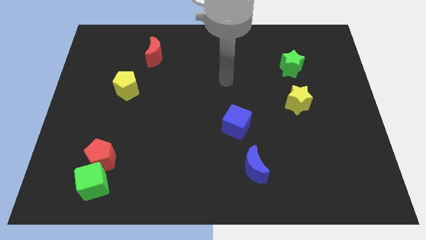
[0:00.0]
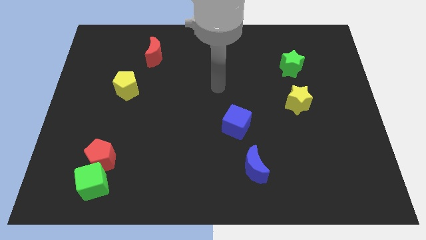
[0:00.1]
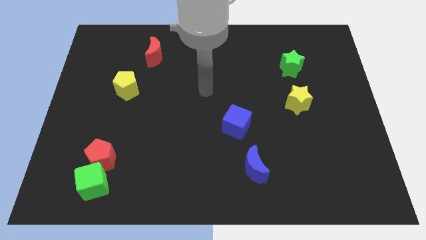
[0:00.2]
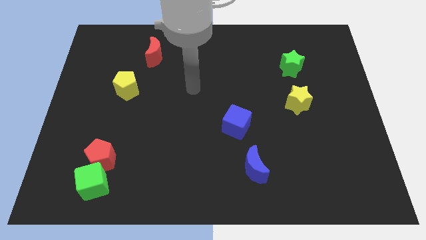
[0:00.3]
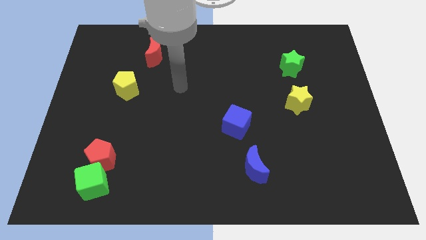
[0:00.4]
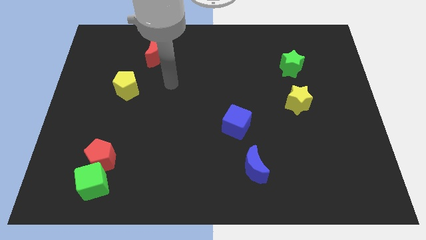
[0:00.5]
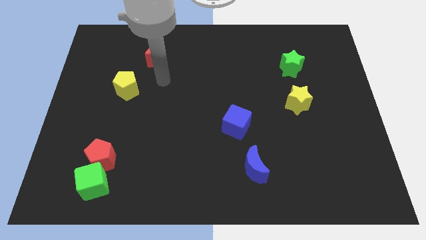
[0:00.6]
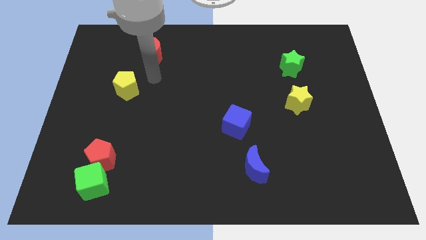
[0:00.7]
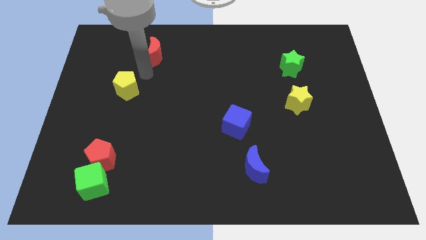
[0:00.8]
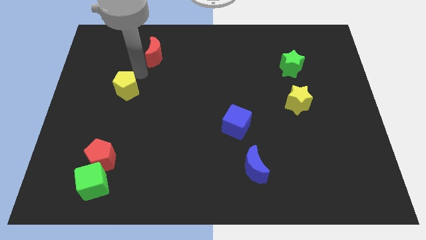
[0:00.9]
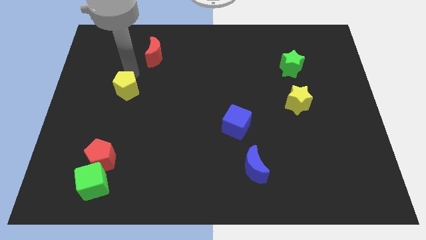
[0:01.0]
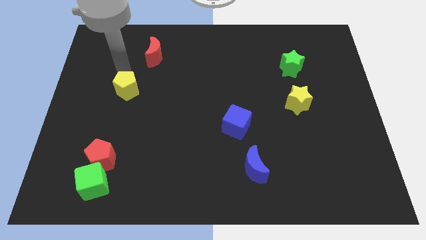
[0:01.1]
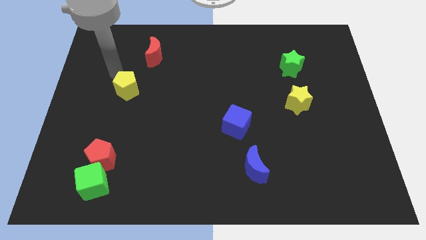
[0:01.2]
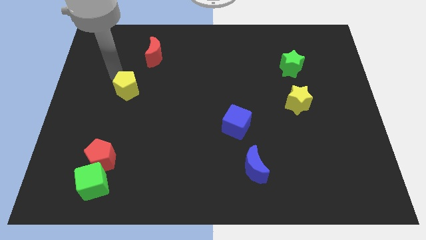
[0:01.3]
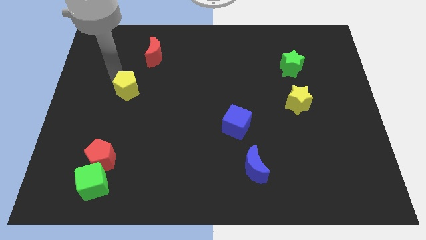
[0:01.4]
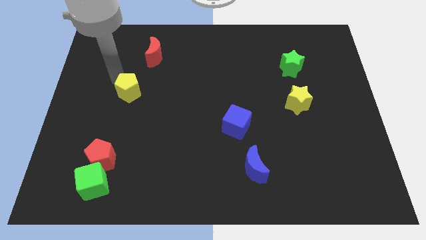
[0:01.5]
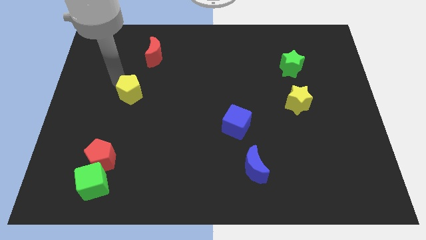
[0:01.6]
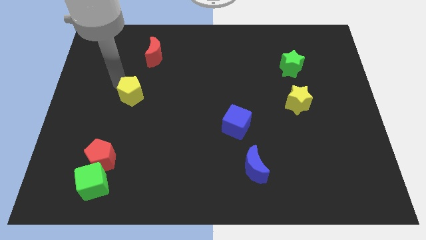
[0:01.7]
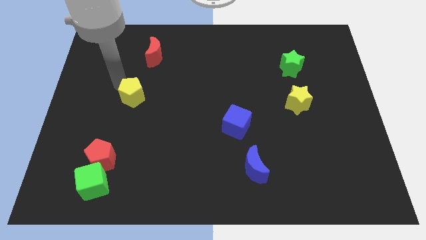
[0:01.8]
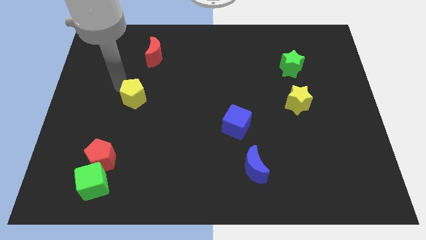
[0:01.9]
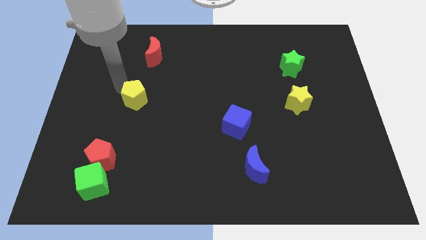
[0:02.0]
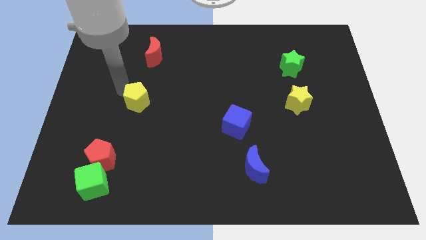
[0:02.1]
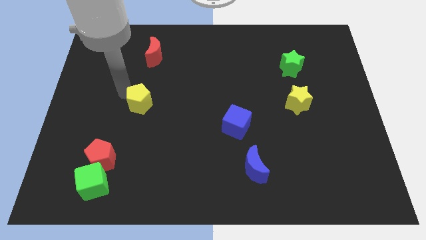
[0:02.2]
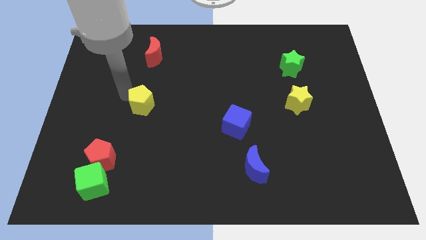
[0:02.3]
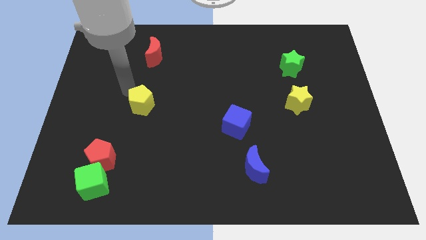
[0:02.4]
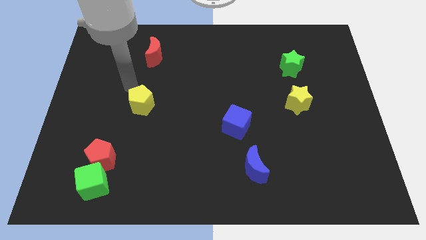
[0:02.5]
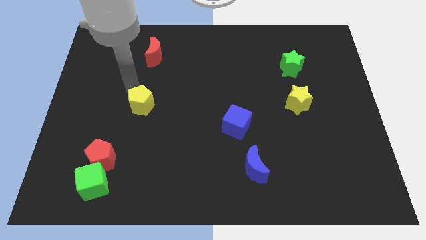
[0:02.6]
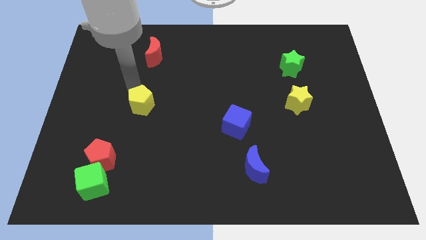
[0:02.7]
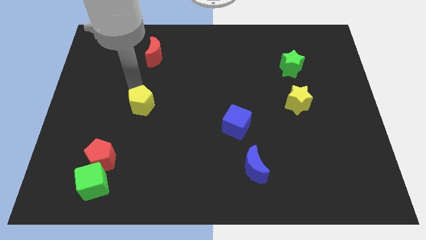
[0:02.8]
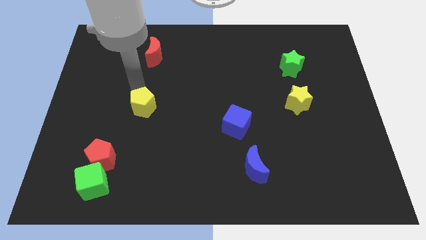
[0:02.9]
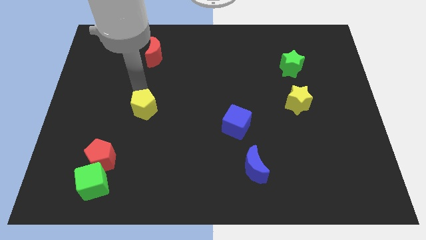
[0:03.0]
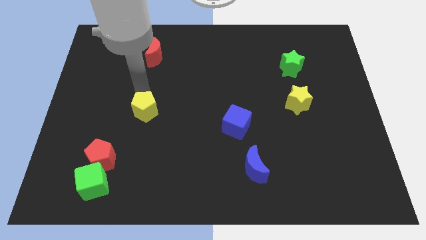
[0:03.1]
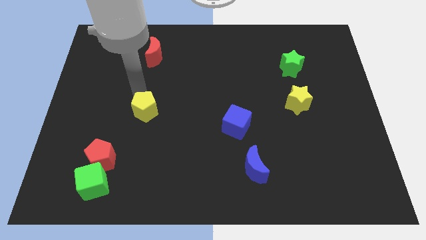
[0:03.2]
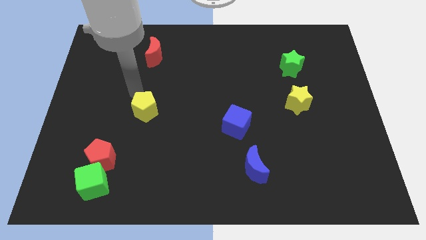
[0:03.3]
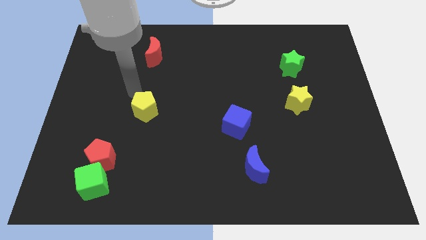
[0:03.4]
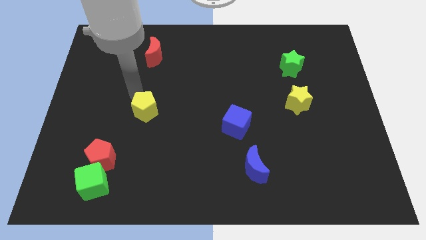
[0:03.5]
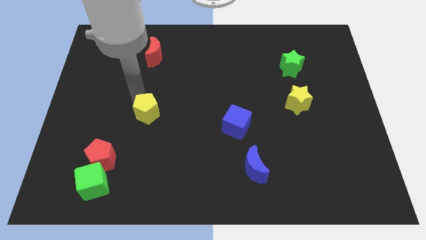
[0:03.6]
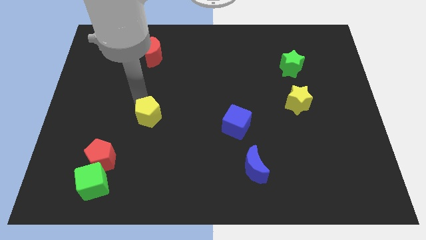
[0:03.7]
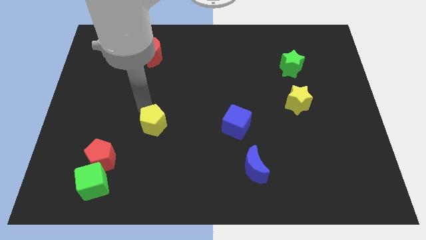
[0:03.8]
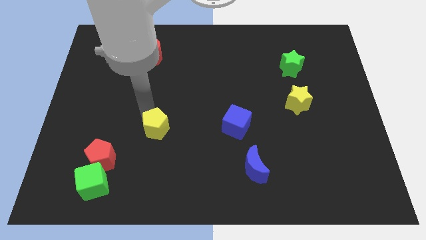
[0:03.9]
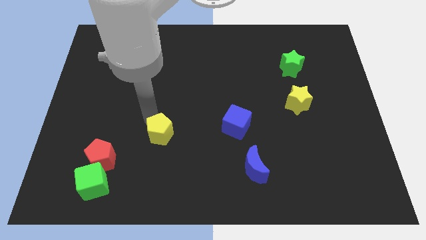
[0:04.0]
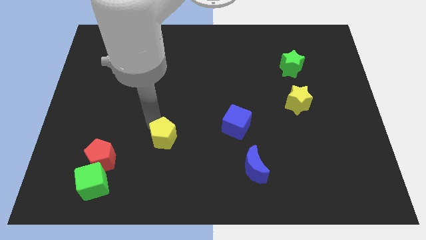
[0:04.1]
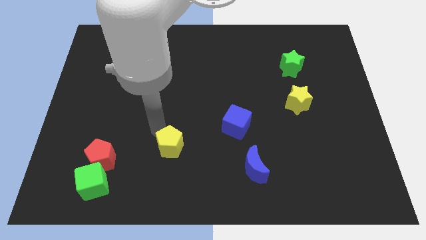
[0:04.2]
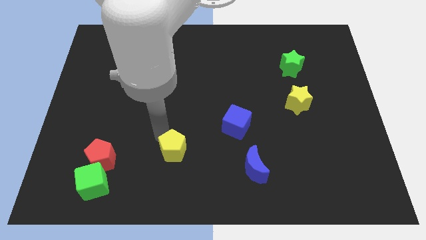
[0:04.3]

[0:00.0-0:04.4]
push the yellow pentagon down and then to the right

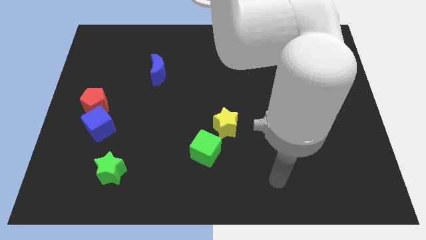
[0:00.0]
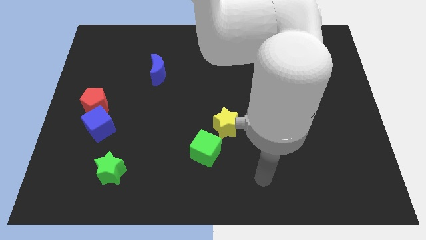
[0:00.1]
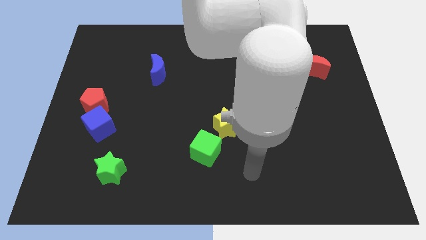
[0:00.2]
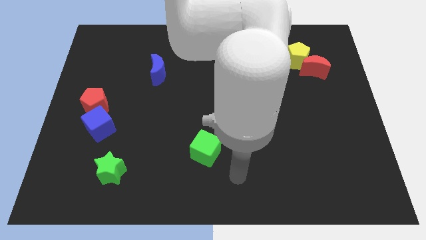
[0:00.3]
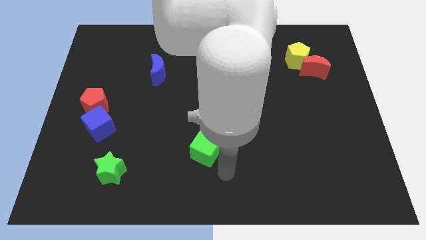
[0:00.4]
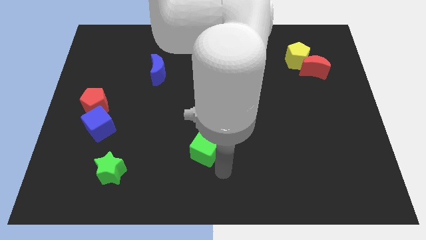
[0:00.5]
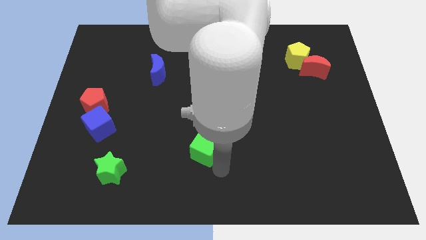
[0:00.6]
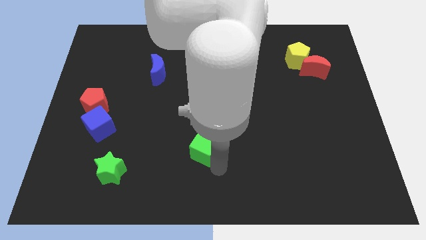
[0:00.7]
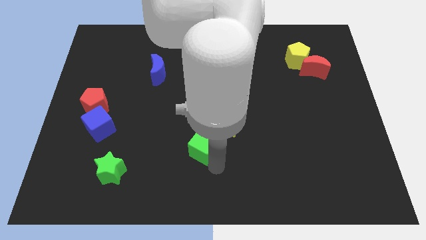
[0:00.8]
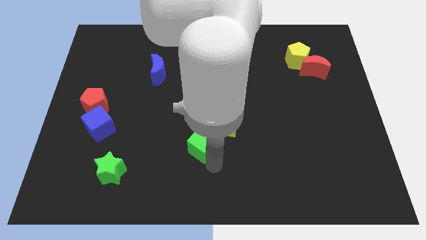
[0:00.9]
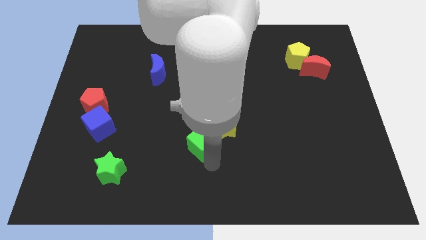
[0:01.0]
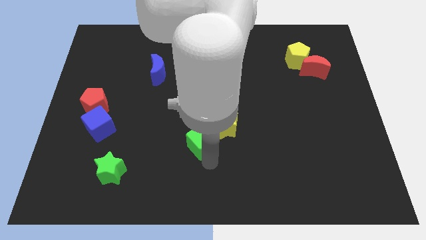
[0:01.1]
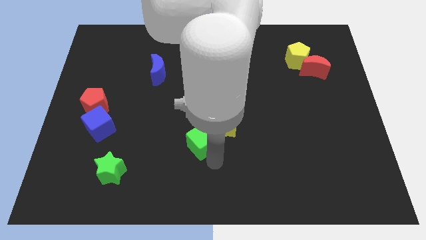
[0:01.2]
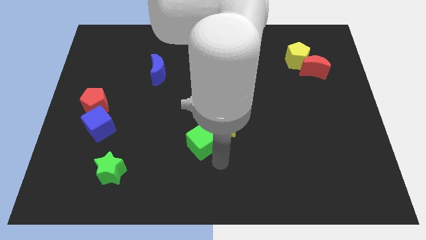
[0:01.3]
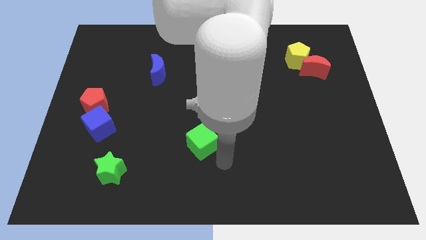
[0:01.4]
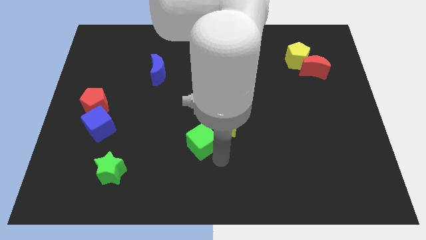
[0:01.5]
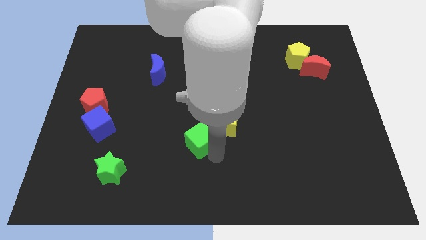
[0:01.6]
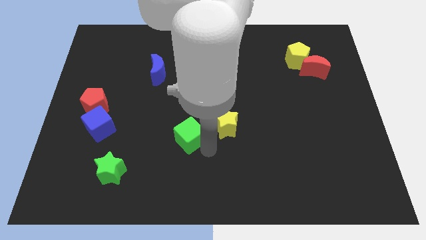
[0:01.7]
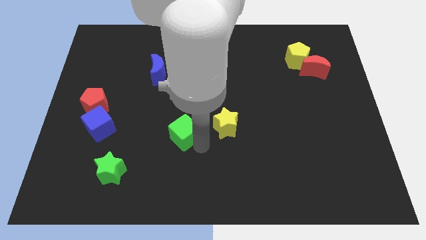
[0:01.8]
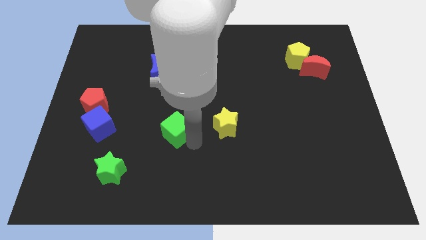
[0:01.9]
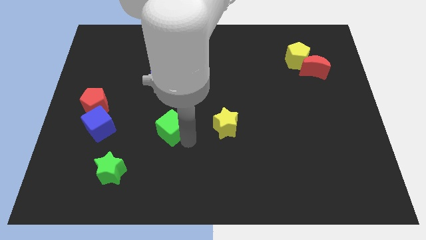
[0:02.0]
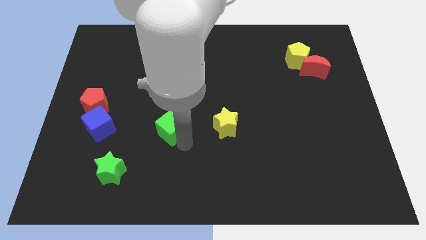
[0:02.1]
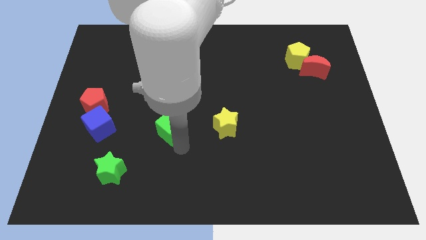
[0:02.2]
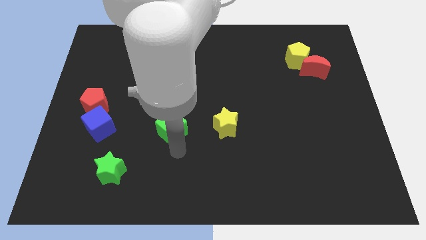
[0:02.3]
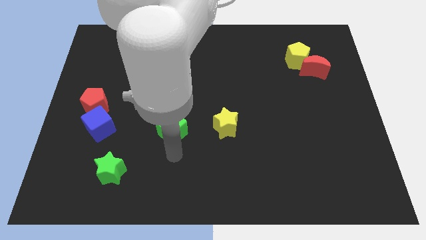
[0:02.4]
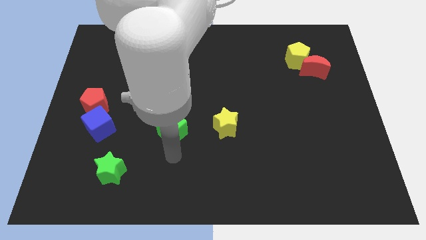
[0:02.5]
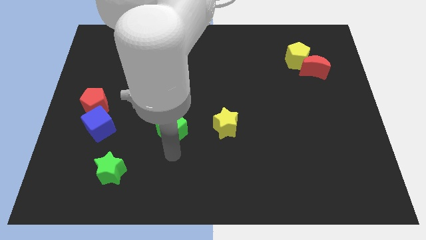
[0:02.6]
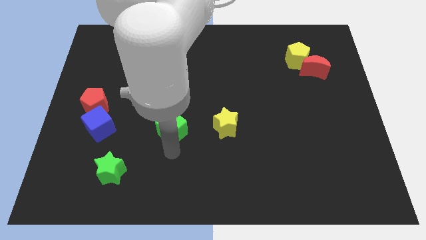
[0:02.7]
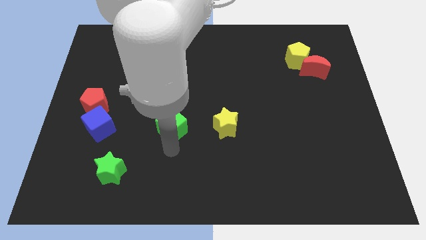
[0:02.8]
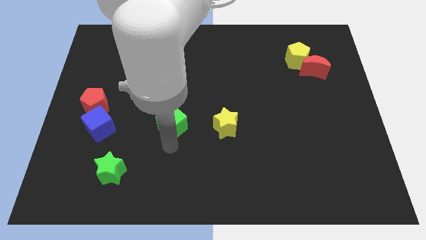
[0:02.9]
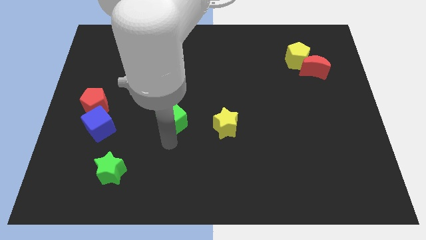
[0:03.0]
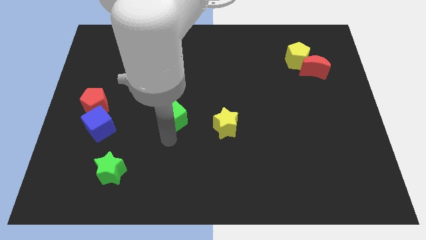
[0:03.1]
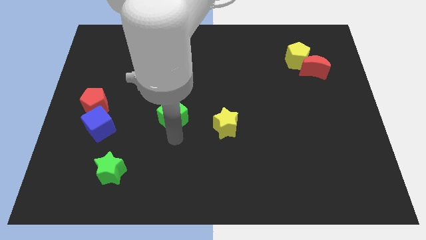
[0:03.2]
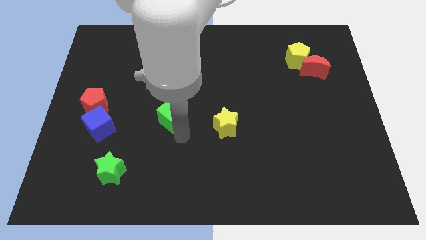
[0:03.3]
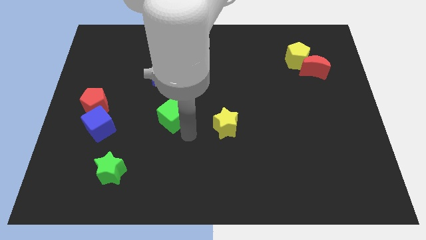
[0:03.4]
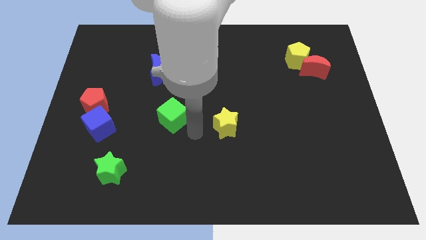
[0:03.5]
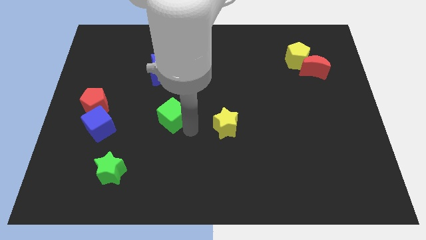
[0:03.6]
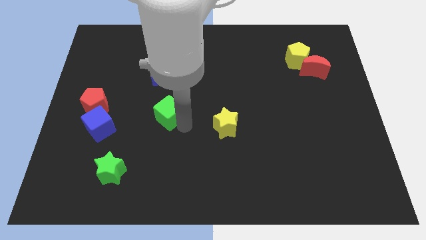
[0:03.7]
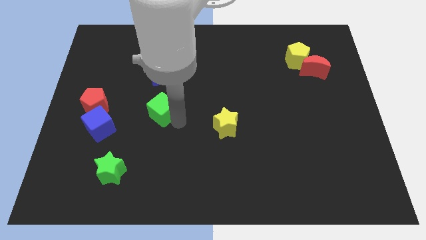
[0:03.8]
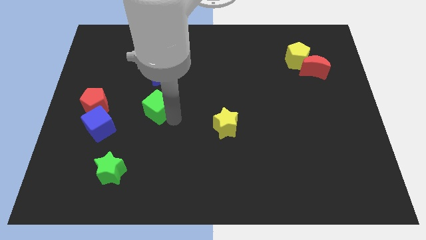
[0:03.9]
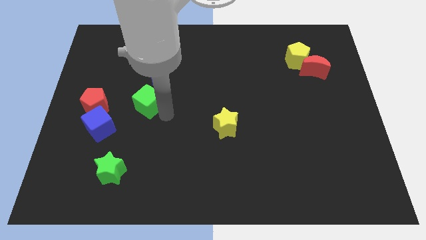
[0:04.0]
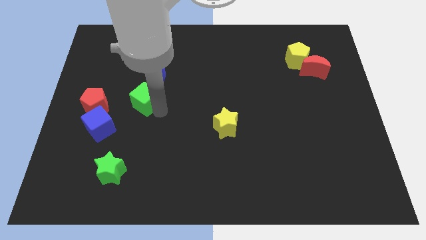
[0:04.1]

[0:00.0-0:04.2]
slide the green cube upwards and to the left
